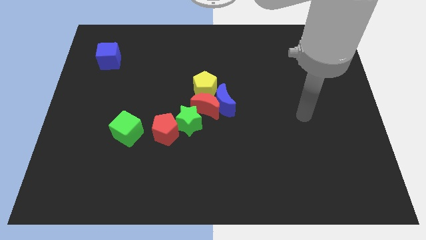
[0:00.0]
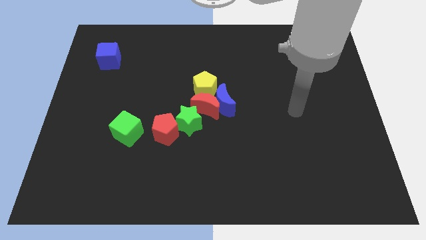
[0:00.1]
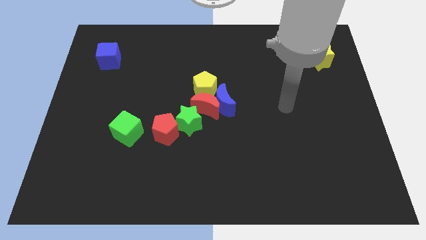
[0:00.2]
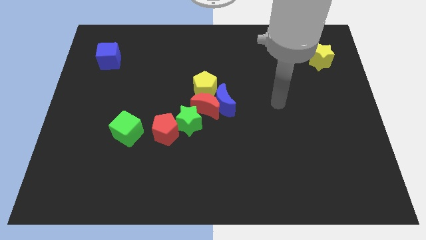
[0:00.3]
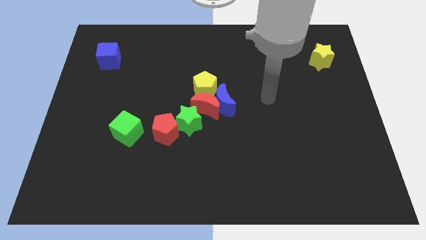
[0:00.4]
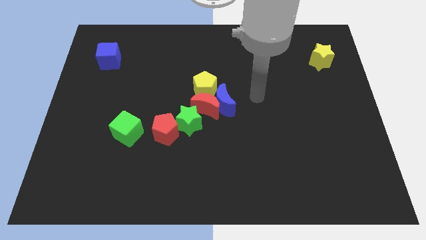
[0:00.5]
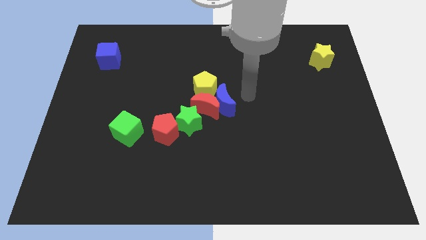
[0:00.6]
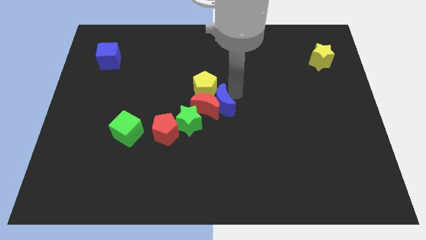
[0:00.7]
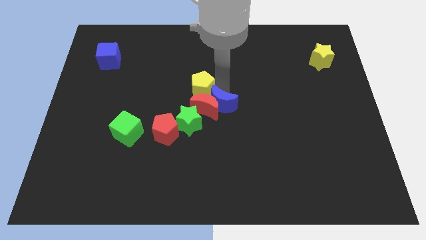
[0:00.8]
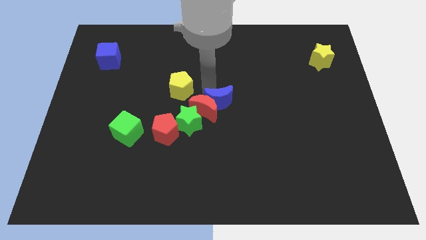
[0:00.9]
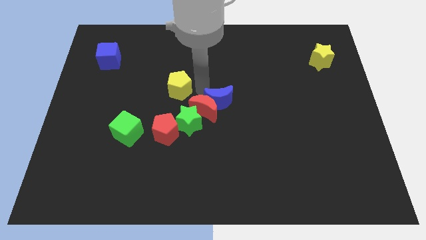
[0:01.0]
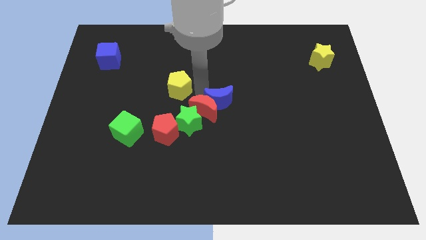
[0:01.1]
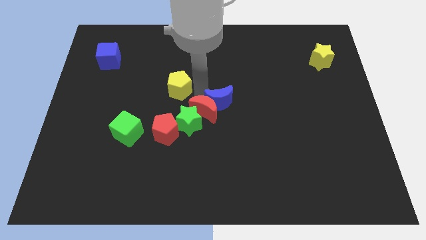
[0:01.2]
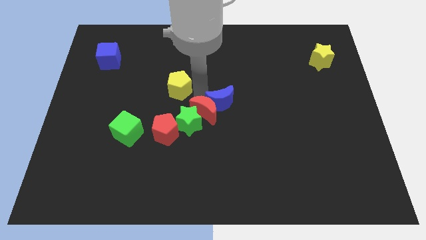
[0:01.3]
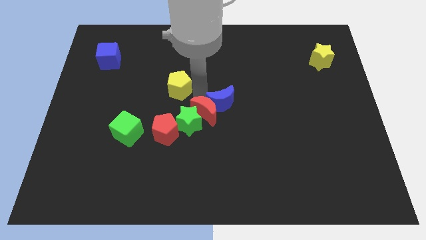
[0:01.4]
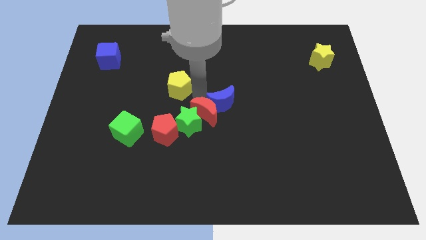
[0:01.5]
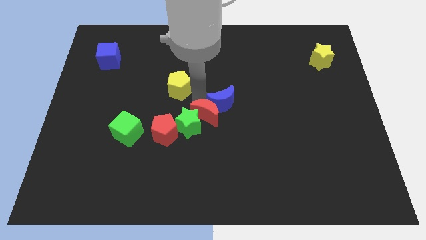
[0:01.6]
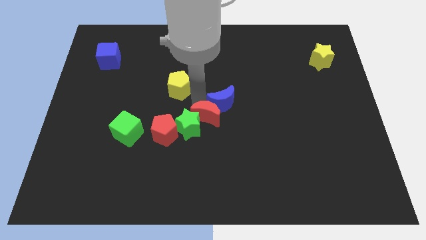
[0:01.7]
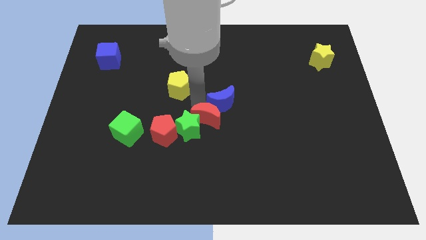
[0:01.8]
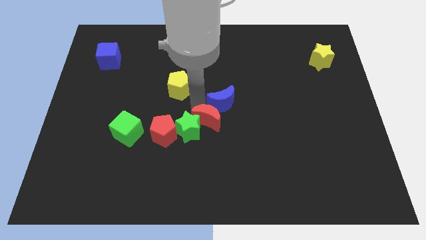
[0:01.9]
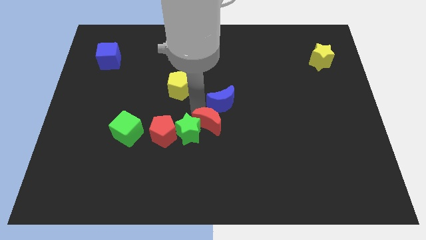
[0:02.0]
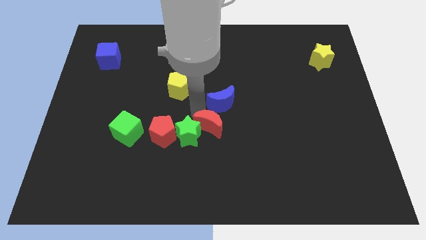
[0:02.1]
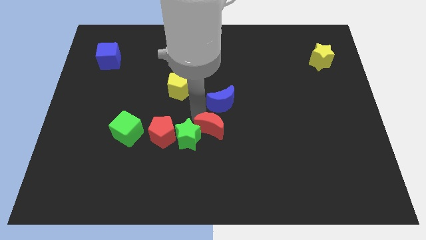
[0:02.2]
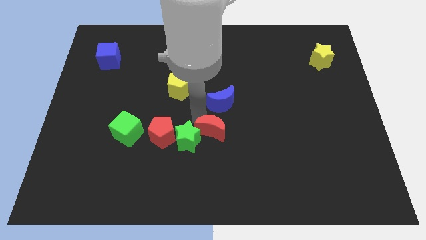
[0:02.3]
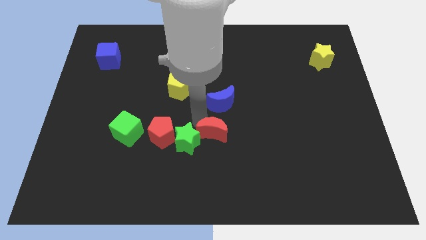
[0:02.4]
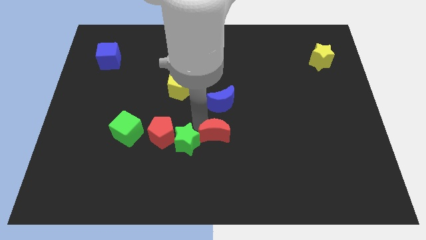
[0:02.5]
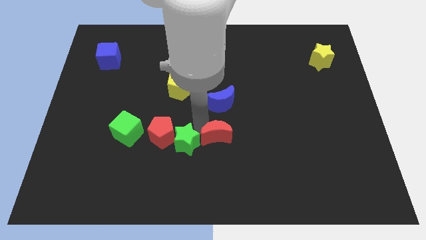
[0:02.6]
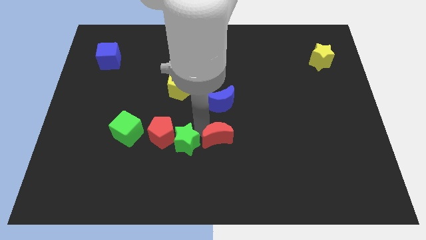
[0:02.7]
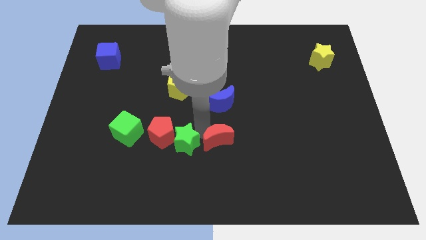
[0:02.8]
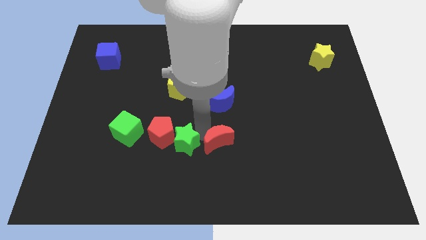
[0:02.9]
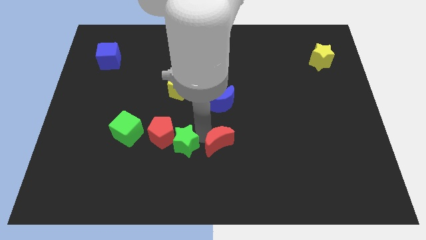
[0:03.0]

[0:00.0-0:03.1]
separate the red moon from the blue moon, green star, and yellow pentagon

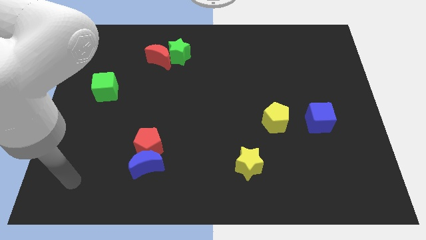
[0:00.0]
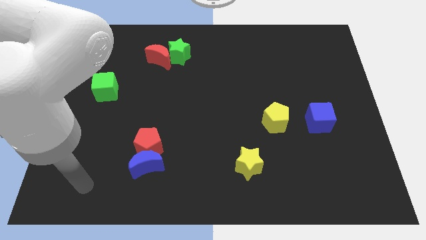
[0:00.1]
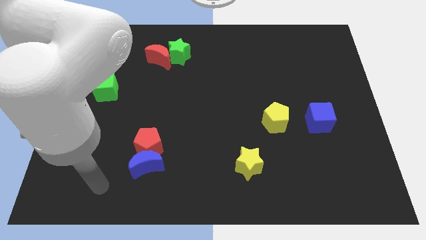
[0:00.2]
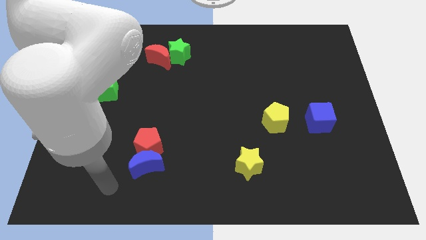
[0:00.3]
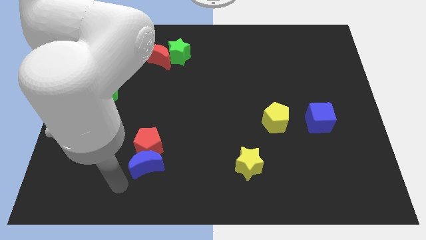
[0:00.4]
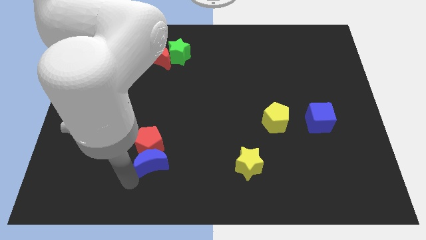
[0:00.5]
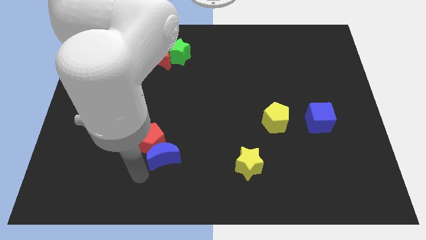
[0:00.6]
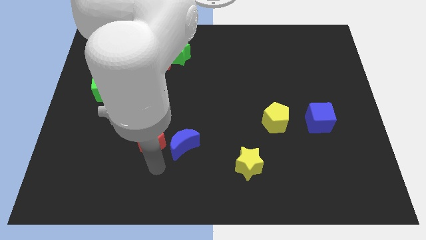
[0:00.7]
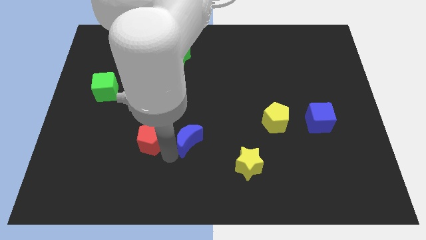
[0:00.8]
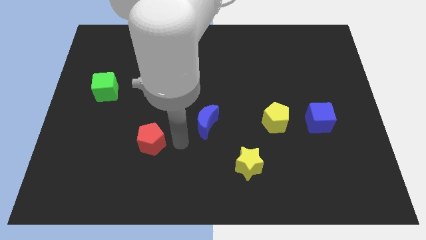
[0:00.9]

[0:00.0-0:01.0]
pull the red pentagon apart from the blue moon

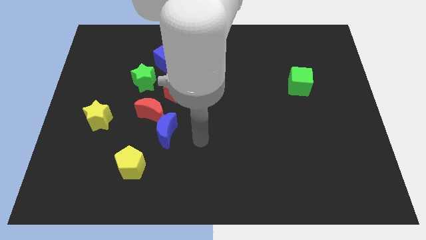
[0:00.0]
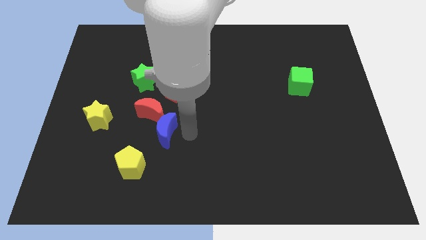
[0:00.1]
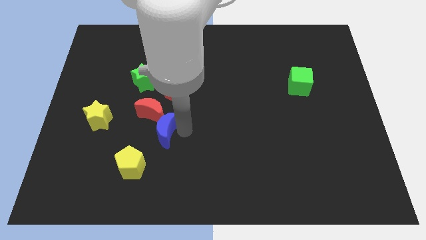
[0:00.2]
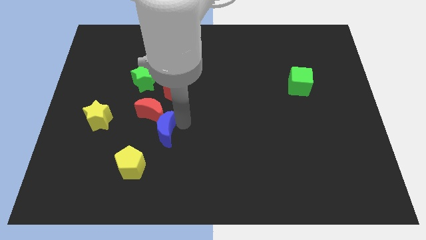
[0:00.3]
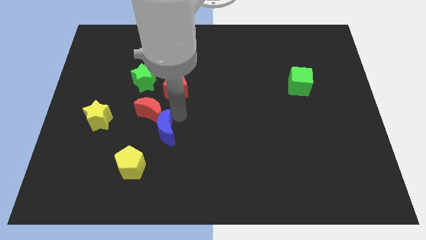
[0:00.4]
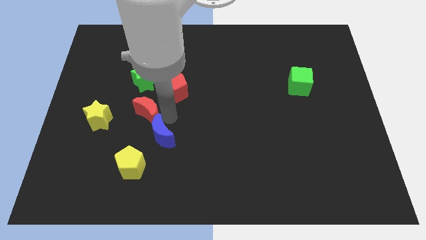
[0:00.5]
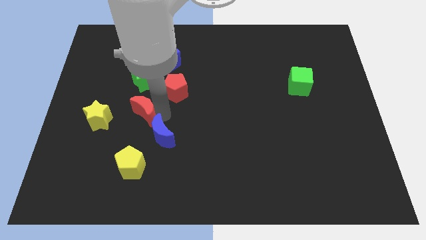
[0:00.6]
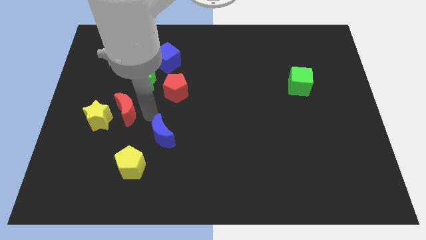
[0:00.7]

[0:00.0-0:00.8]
pull the blue moon apart from the red moon

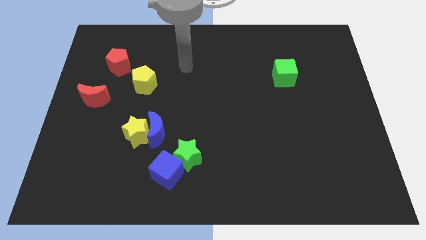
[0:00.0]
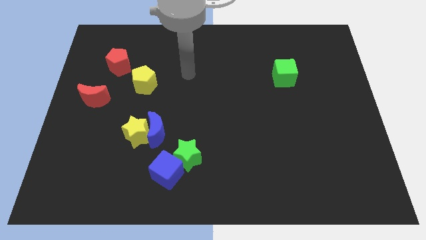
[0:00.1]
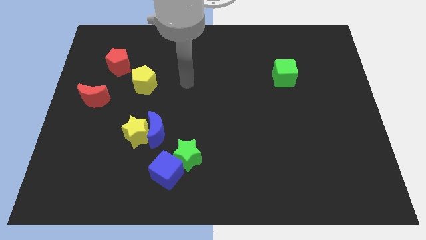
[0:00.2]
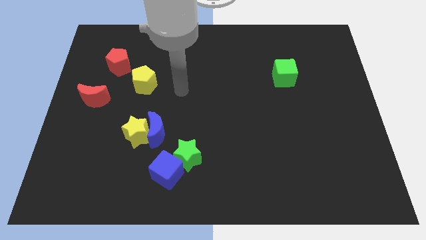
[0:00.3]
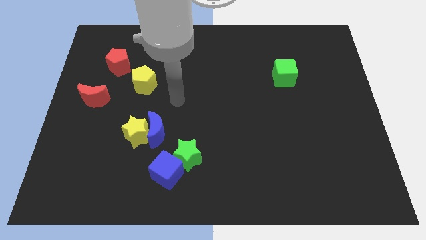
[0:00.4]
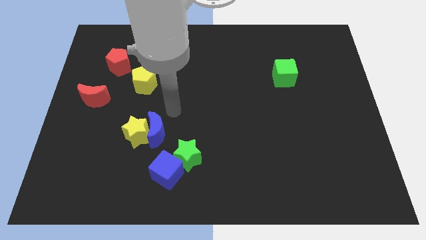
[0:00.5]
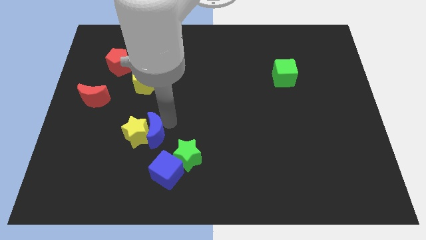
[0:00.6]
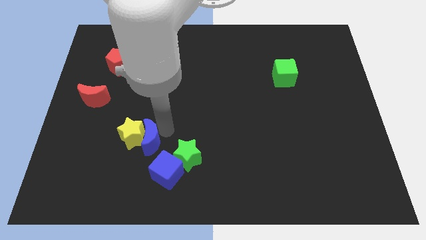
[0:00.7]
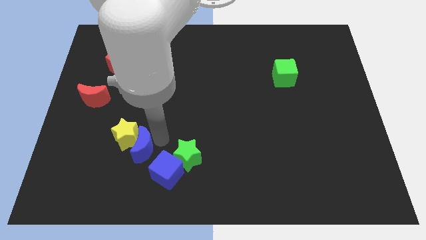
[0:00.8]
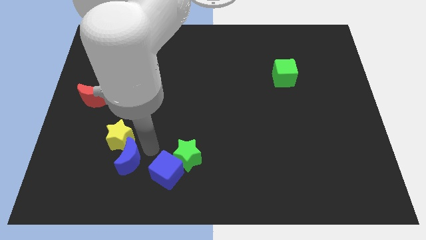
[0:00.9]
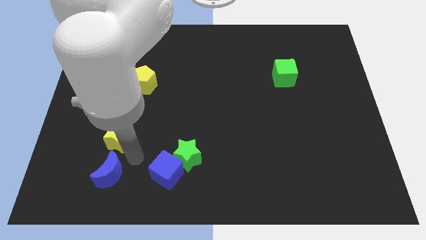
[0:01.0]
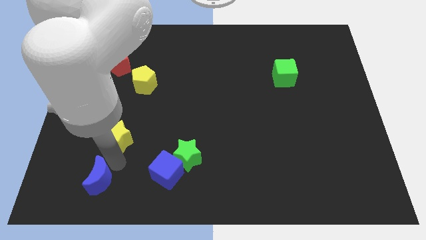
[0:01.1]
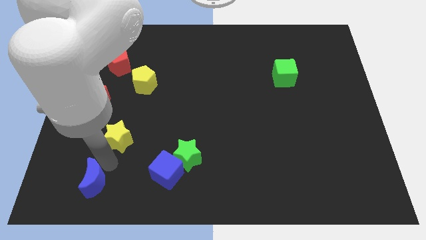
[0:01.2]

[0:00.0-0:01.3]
separate the yellow star from the blue moon

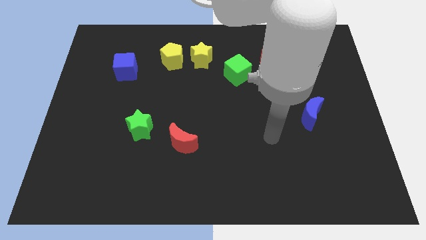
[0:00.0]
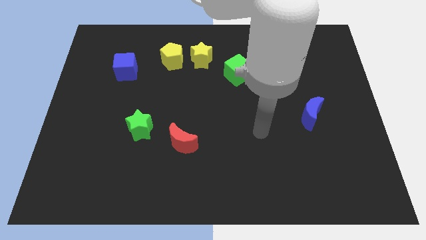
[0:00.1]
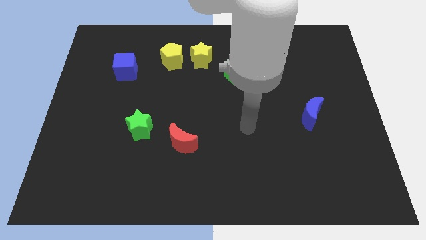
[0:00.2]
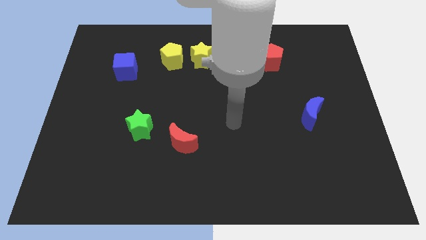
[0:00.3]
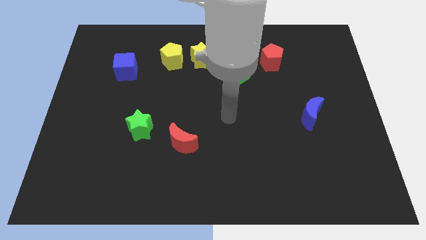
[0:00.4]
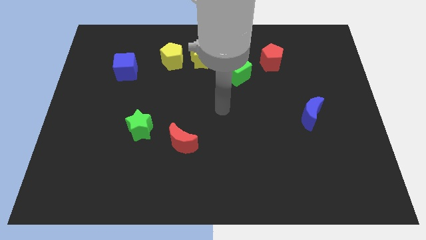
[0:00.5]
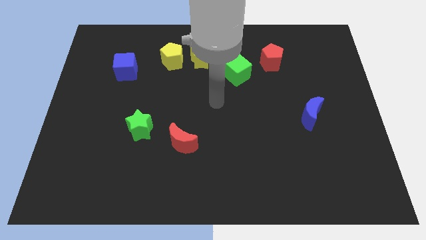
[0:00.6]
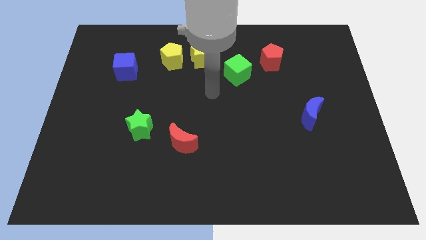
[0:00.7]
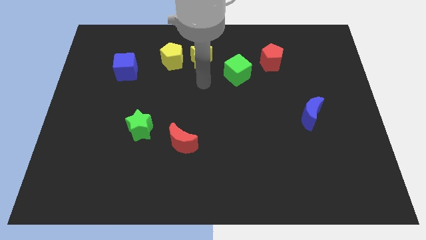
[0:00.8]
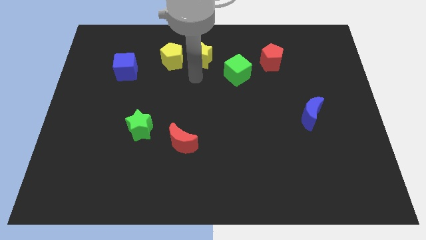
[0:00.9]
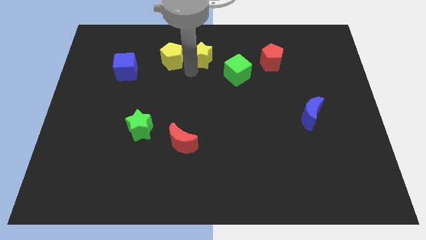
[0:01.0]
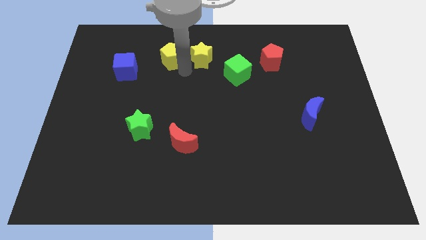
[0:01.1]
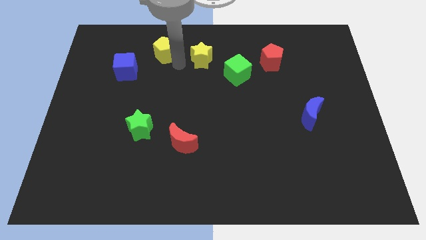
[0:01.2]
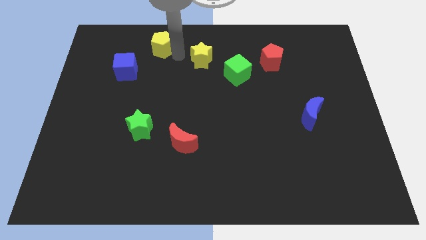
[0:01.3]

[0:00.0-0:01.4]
separate the yellow star from the yellow pentagon

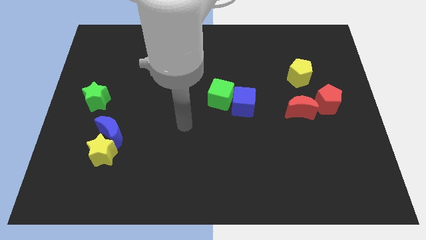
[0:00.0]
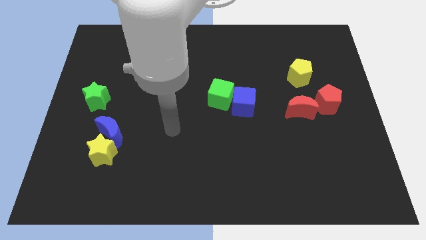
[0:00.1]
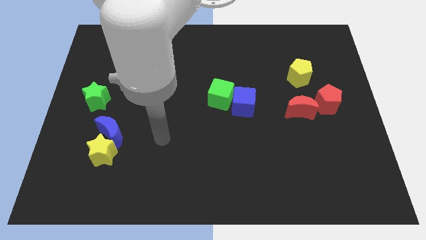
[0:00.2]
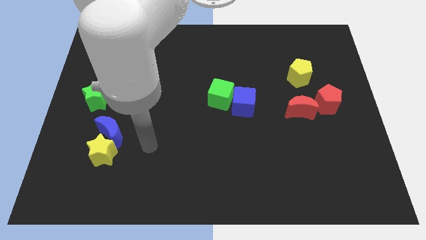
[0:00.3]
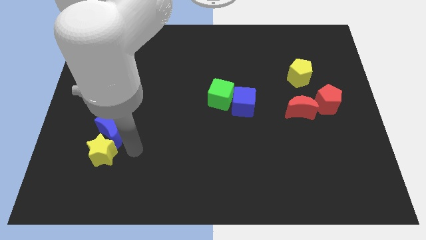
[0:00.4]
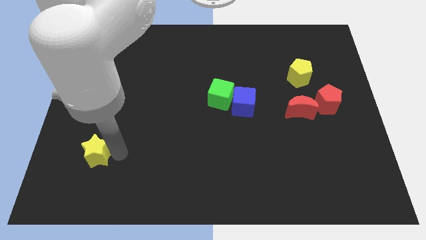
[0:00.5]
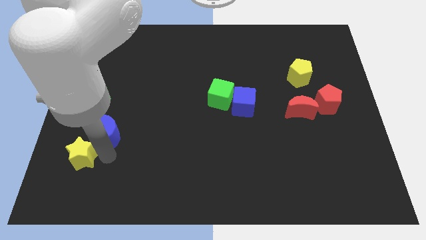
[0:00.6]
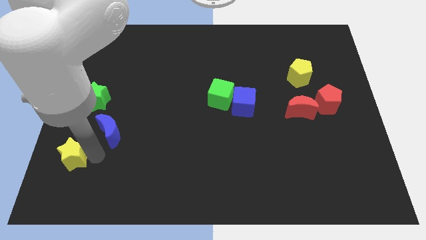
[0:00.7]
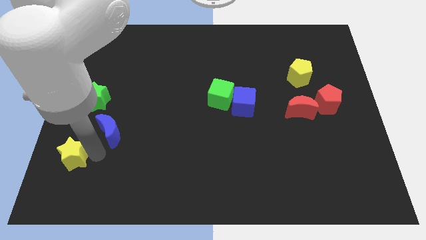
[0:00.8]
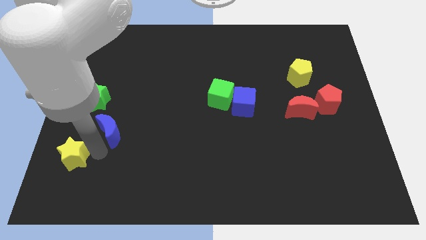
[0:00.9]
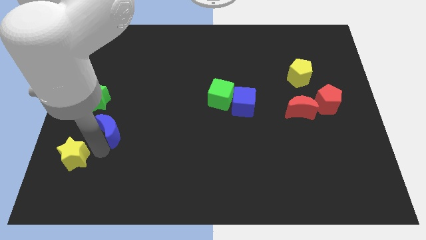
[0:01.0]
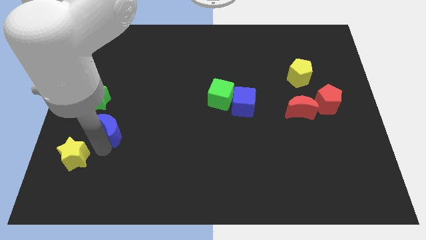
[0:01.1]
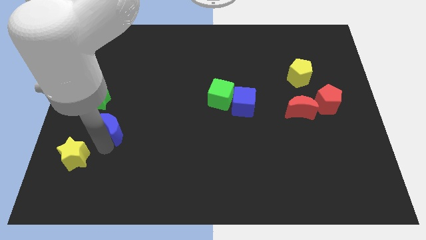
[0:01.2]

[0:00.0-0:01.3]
separate the blue moon from the yellow star

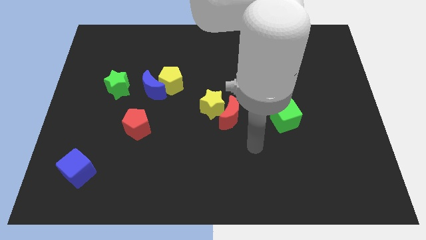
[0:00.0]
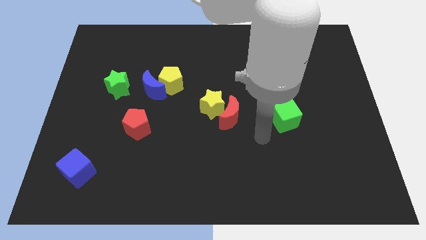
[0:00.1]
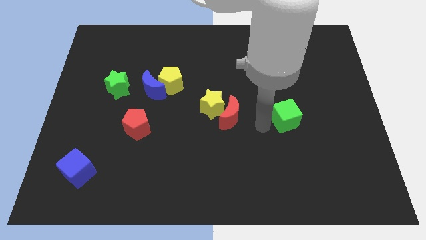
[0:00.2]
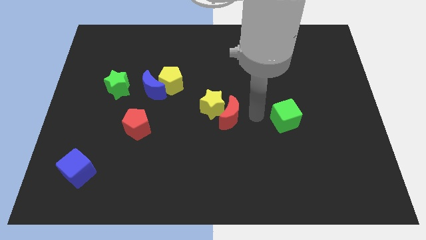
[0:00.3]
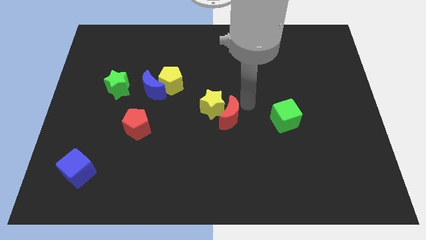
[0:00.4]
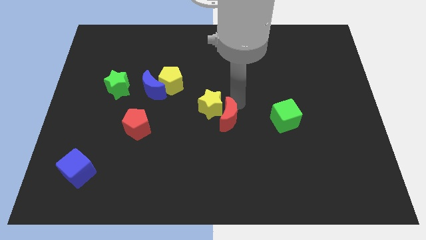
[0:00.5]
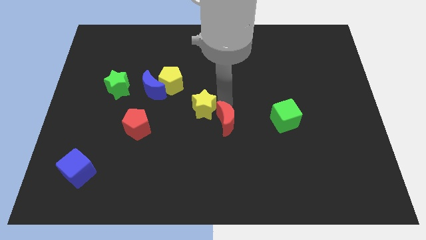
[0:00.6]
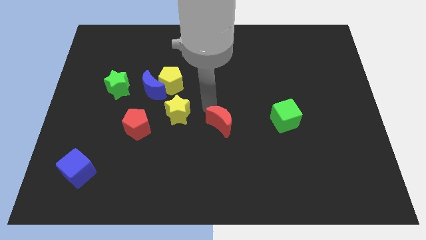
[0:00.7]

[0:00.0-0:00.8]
pull the red moon apart from the yellow star
